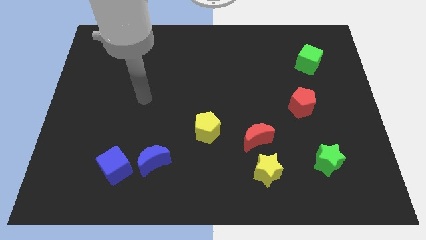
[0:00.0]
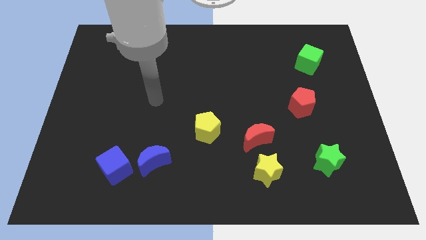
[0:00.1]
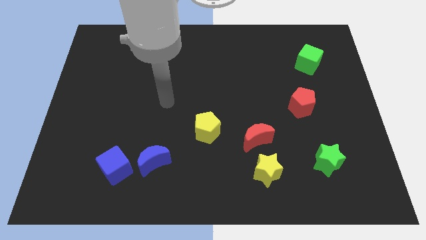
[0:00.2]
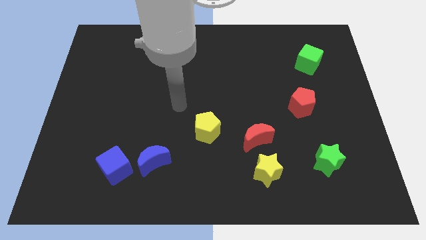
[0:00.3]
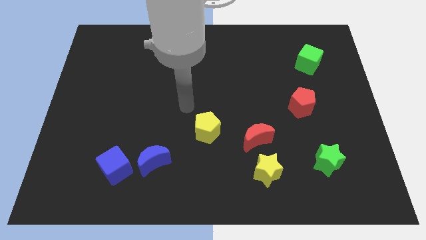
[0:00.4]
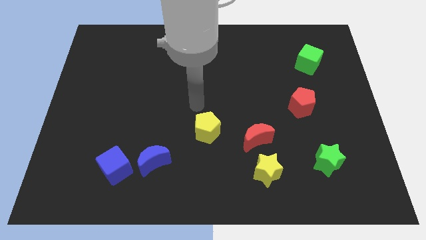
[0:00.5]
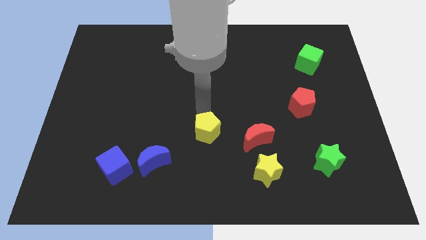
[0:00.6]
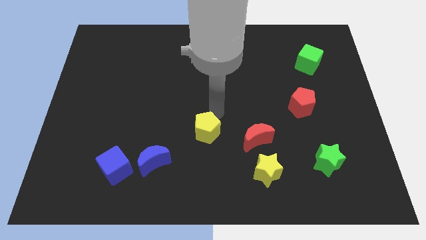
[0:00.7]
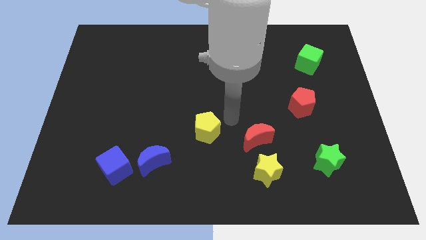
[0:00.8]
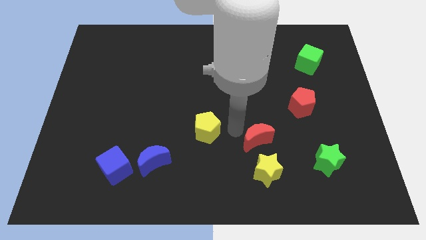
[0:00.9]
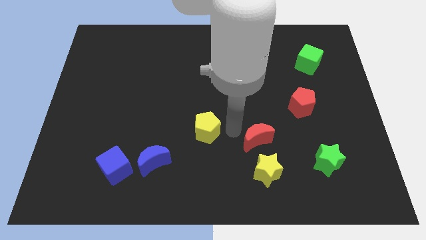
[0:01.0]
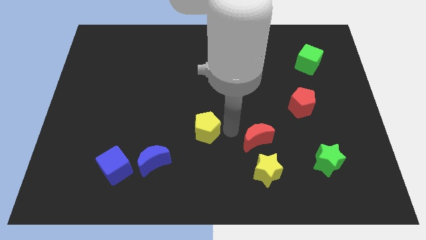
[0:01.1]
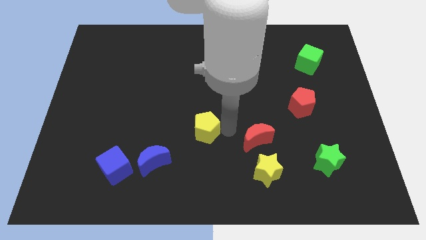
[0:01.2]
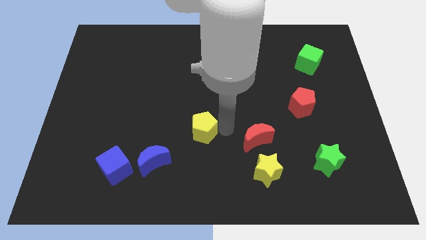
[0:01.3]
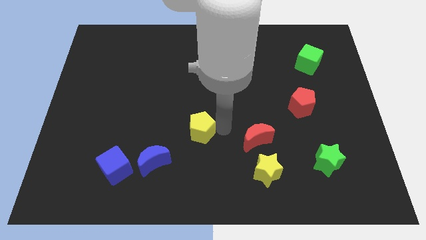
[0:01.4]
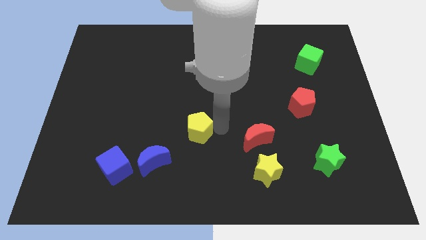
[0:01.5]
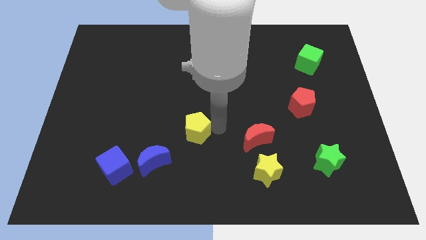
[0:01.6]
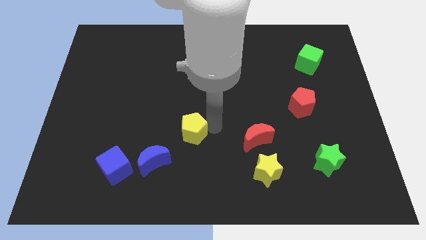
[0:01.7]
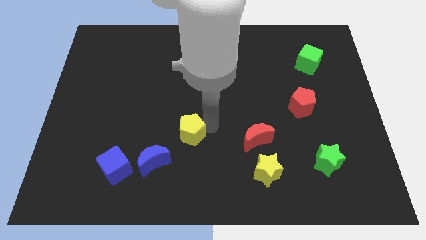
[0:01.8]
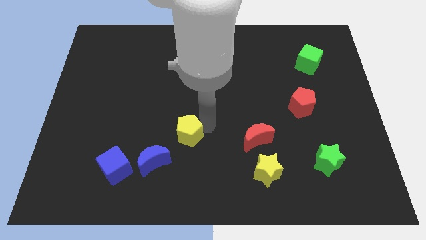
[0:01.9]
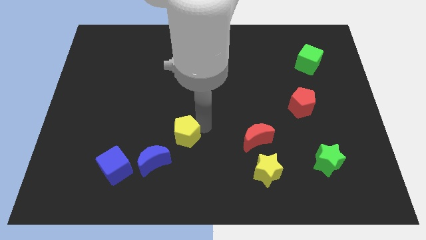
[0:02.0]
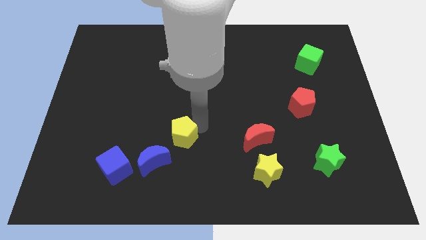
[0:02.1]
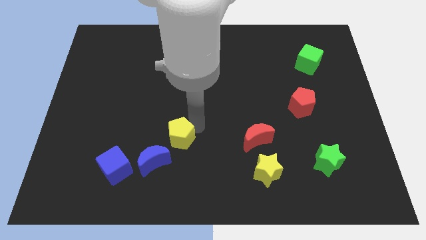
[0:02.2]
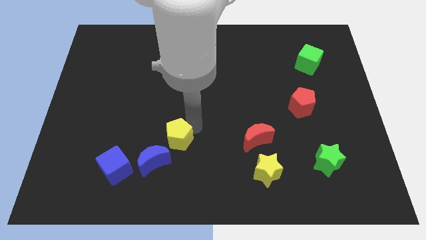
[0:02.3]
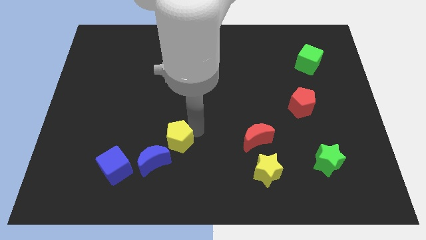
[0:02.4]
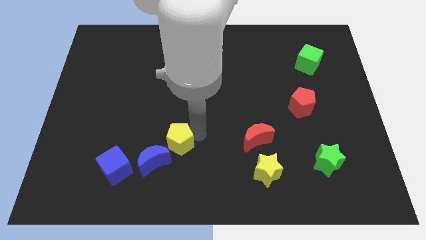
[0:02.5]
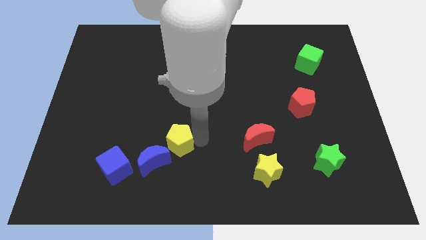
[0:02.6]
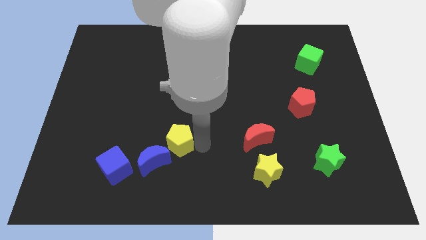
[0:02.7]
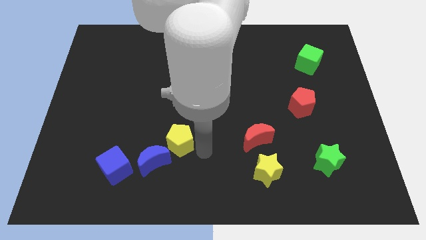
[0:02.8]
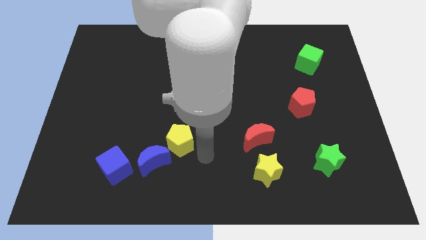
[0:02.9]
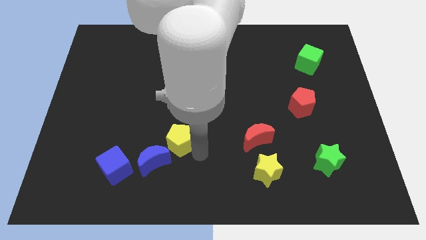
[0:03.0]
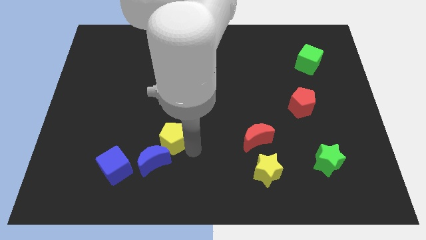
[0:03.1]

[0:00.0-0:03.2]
slightly slide the yellow pentagon to the left

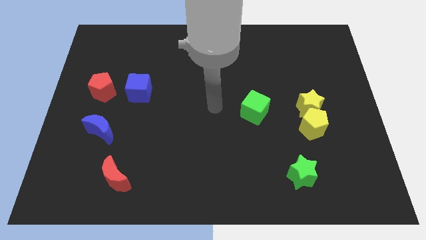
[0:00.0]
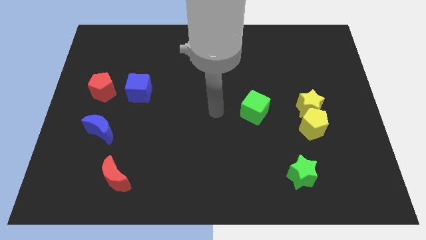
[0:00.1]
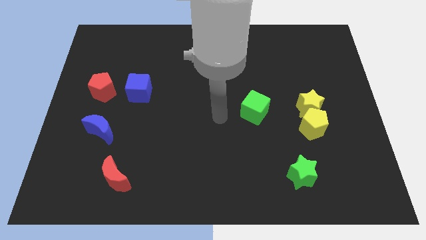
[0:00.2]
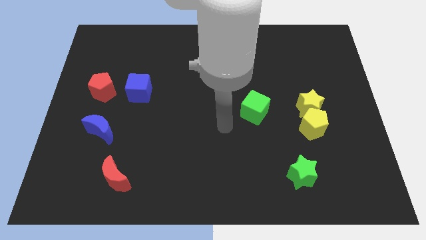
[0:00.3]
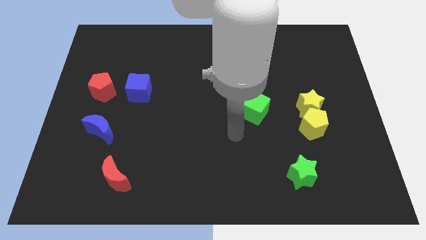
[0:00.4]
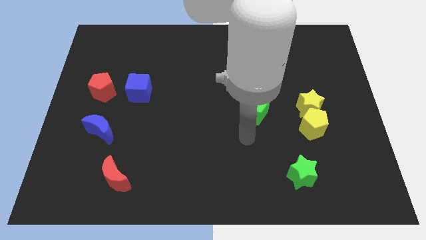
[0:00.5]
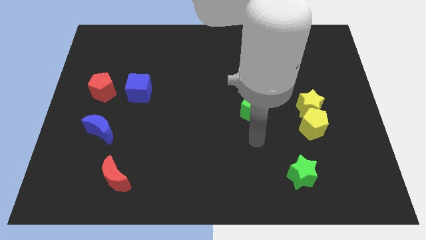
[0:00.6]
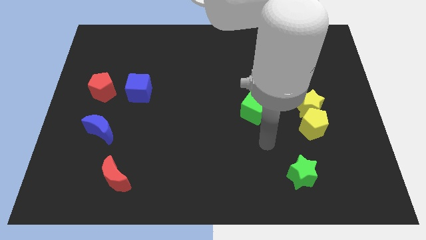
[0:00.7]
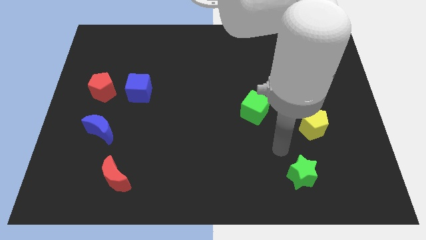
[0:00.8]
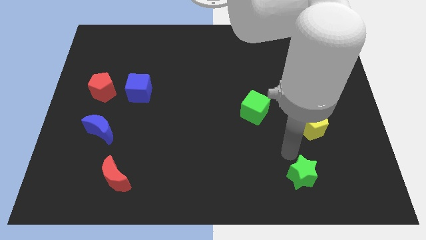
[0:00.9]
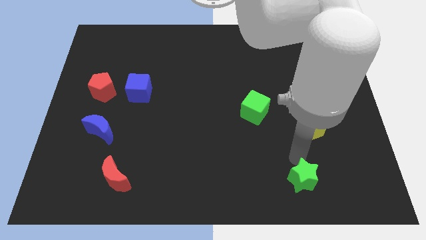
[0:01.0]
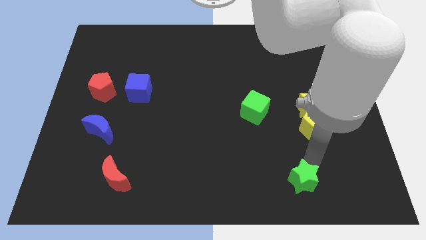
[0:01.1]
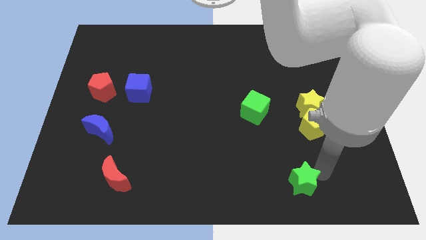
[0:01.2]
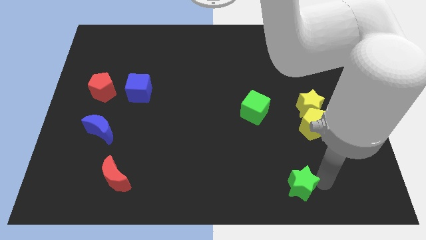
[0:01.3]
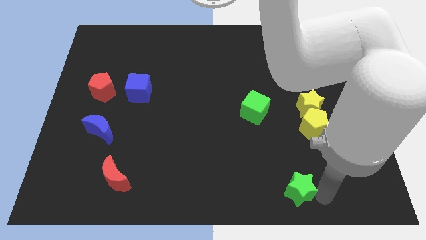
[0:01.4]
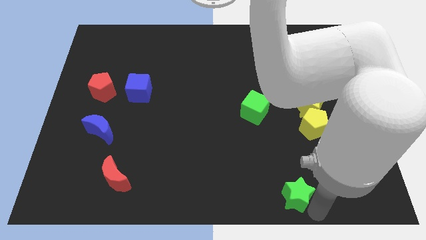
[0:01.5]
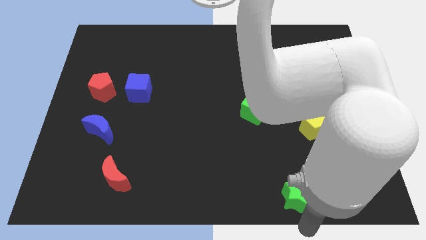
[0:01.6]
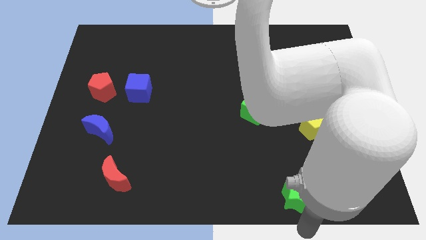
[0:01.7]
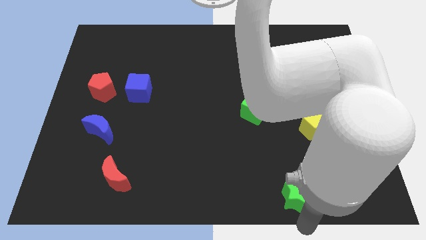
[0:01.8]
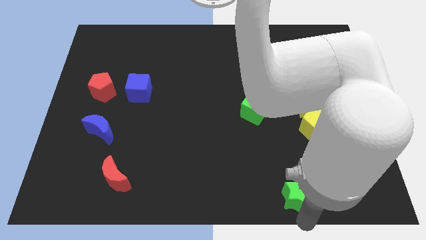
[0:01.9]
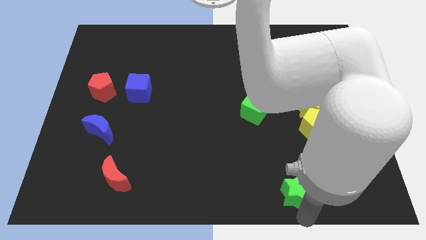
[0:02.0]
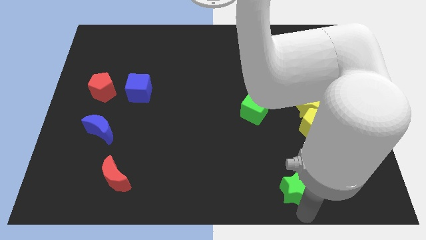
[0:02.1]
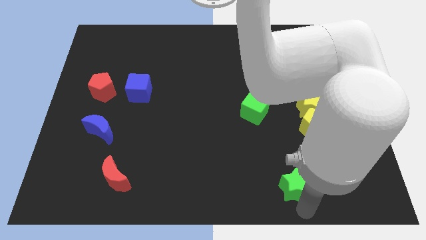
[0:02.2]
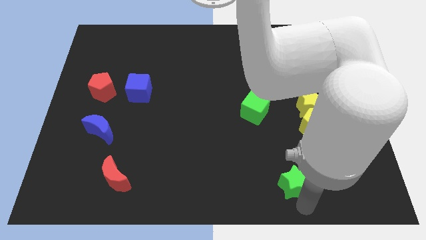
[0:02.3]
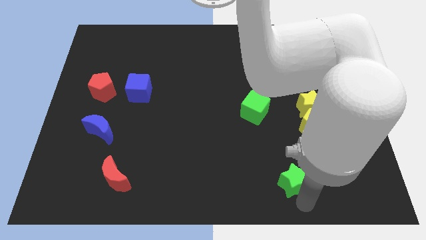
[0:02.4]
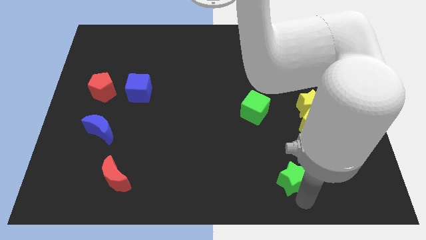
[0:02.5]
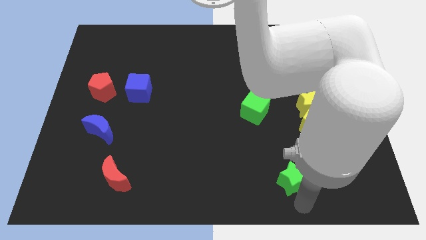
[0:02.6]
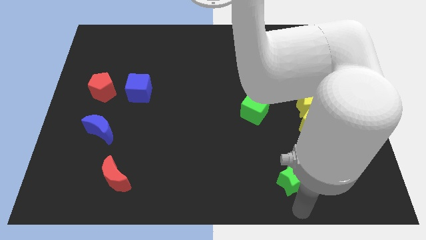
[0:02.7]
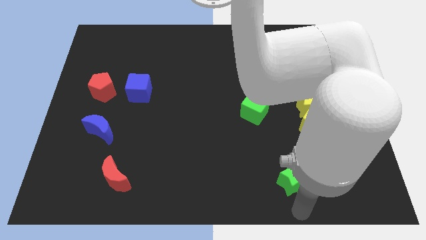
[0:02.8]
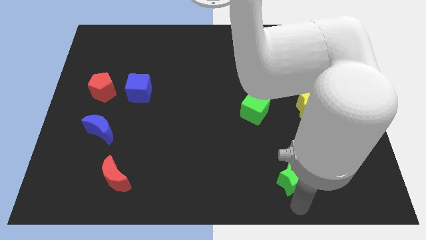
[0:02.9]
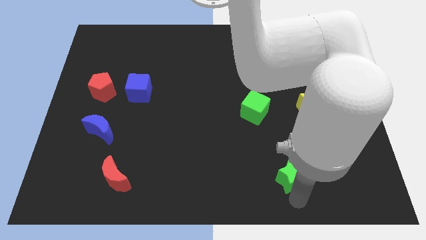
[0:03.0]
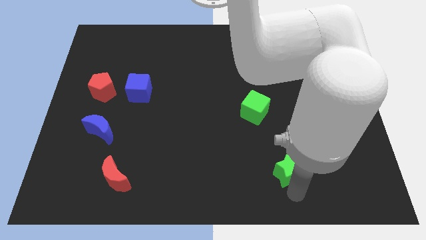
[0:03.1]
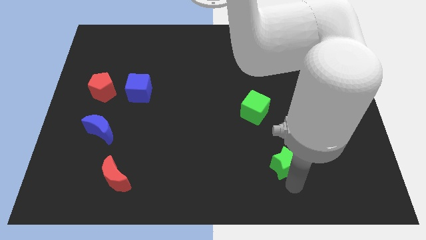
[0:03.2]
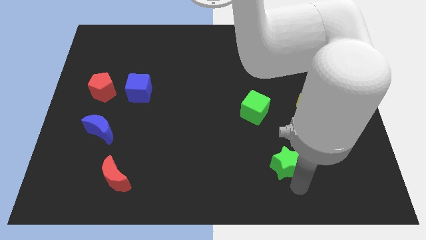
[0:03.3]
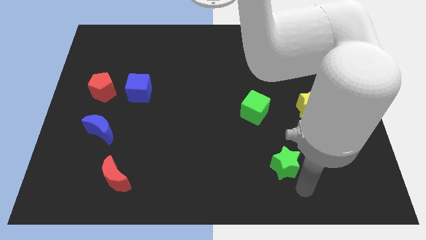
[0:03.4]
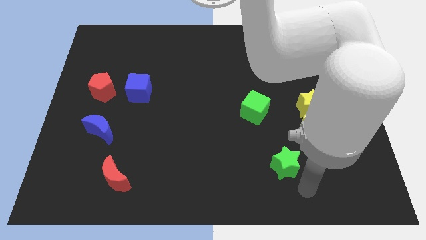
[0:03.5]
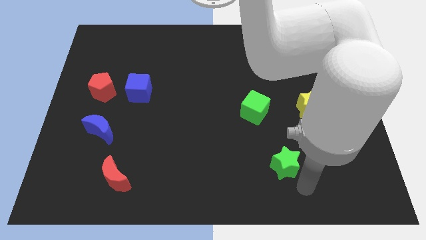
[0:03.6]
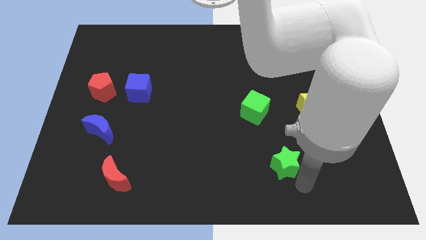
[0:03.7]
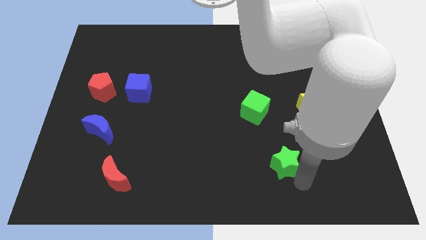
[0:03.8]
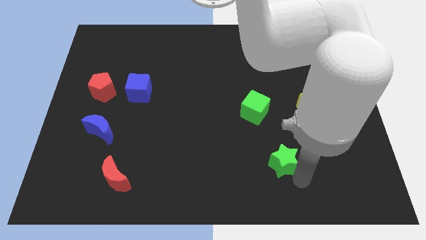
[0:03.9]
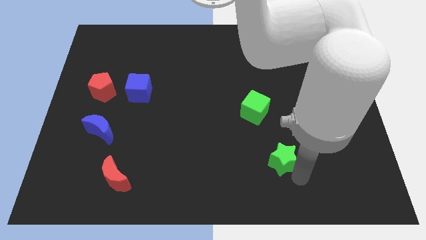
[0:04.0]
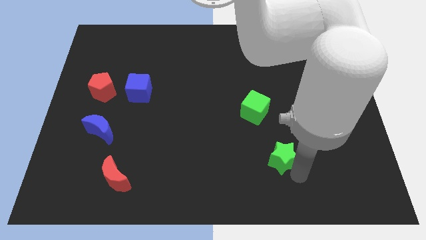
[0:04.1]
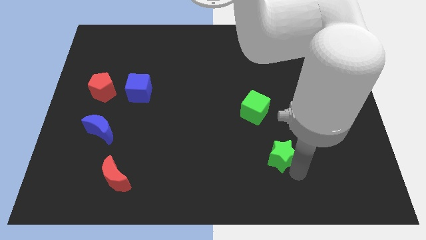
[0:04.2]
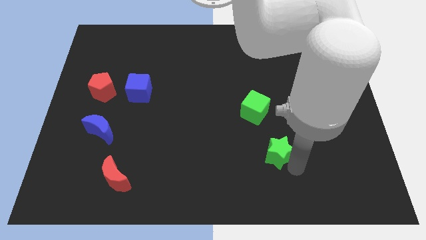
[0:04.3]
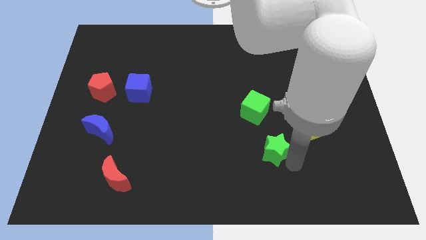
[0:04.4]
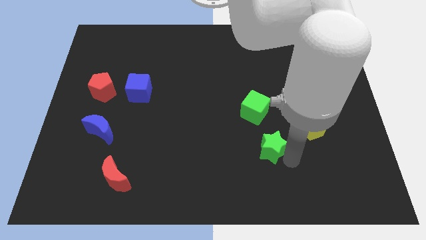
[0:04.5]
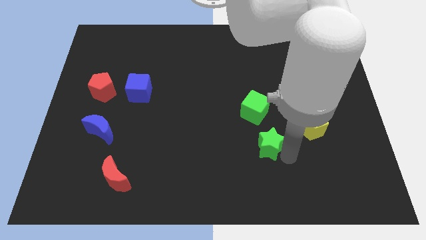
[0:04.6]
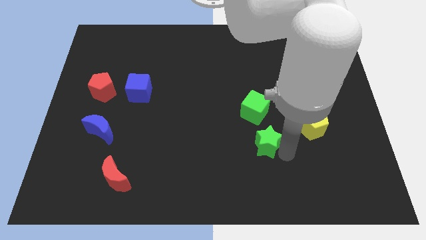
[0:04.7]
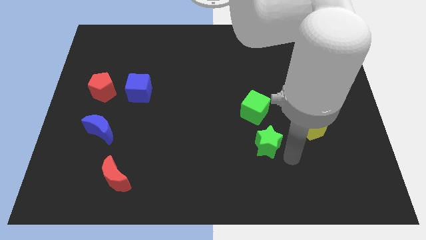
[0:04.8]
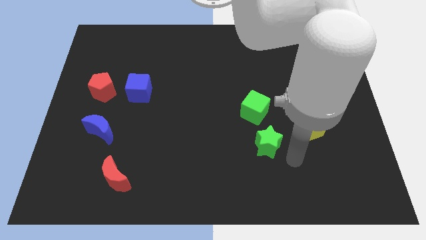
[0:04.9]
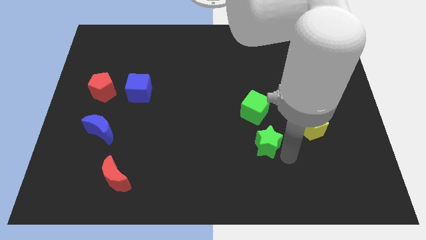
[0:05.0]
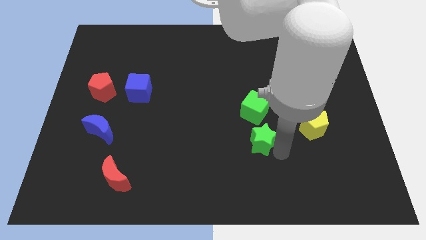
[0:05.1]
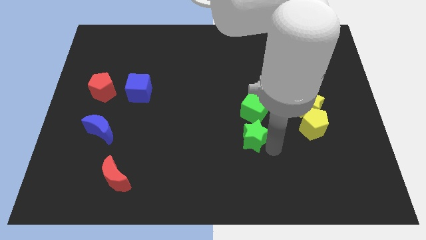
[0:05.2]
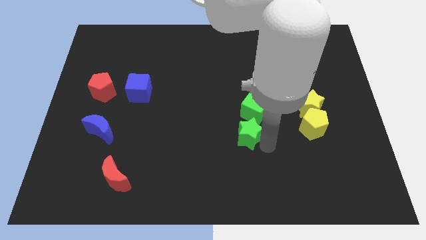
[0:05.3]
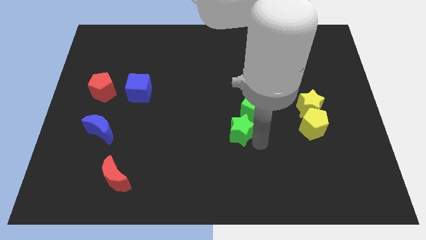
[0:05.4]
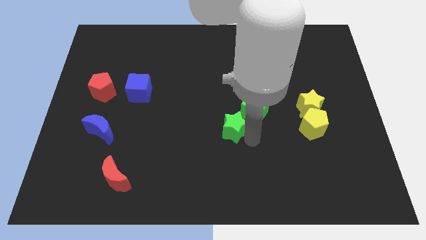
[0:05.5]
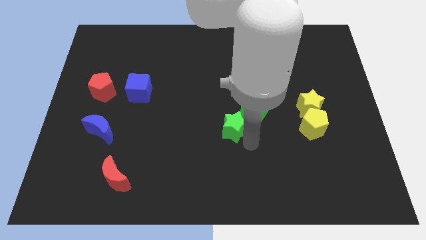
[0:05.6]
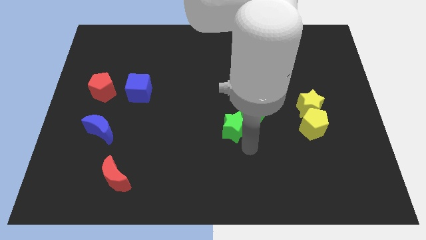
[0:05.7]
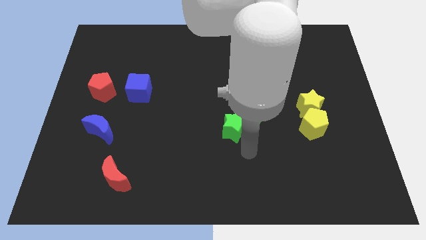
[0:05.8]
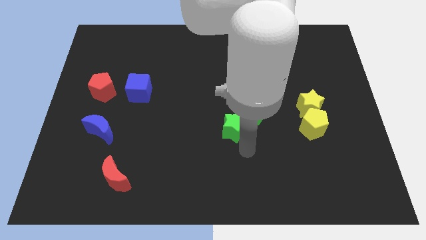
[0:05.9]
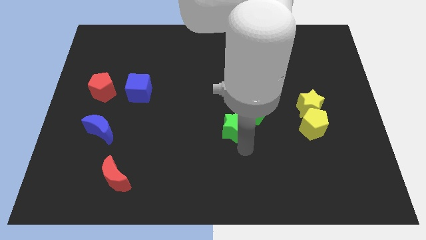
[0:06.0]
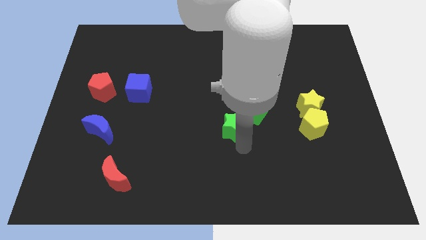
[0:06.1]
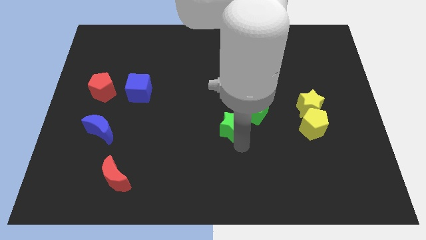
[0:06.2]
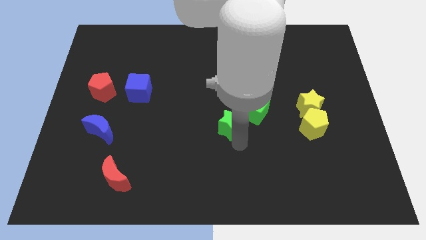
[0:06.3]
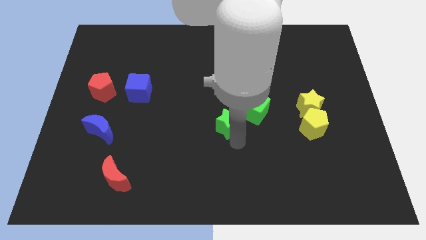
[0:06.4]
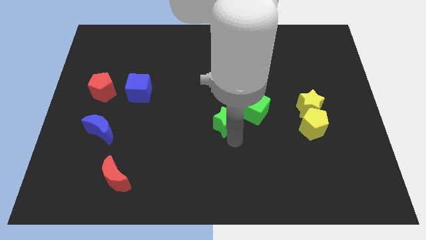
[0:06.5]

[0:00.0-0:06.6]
slide the green star diagonally up and to the left
